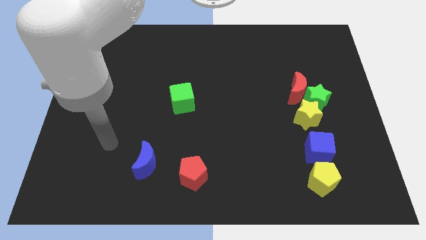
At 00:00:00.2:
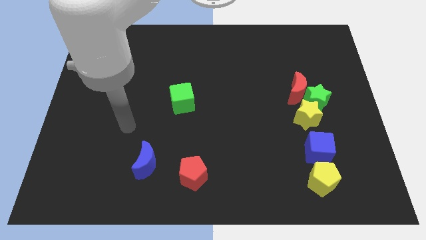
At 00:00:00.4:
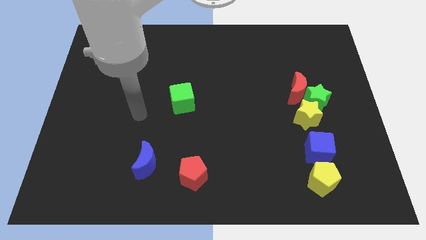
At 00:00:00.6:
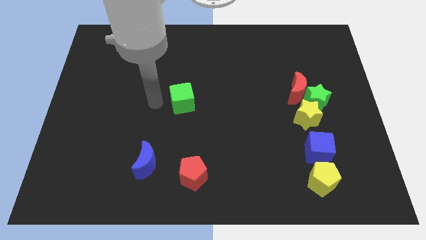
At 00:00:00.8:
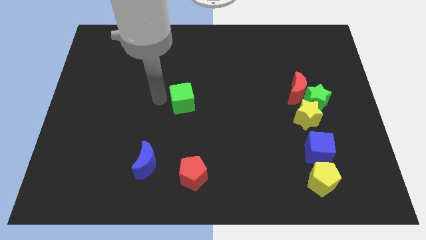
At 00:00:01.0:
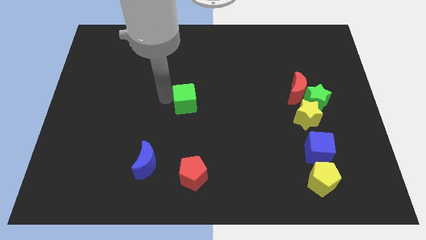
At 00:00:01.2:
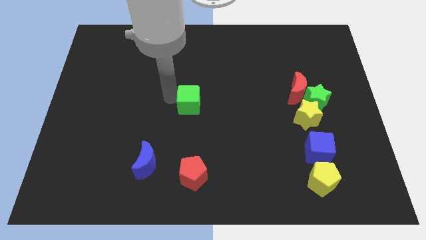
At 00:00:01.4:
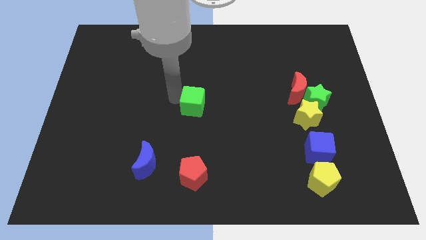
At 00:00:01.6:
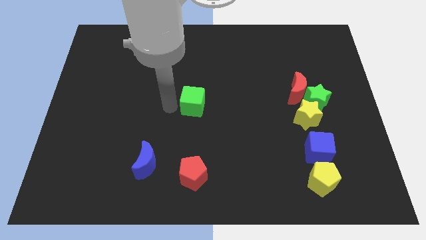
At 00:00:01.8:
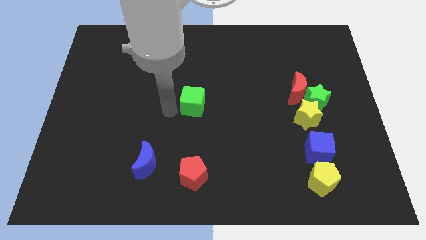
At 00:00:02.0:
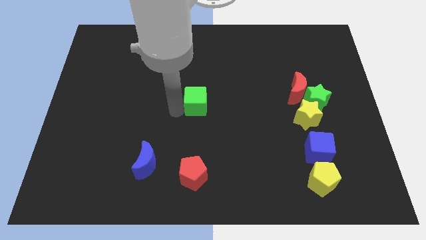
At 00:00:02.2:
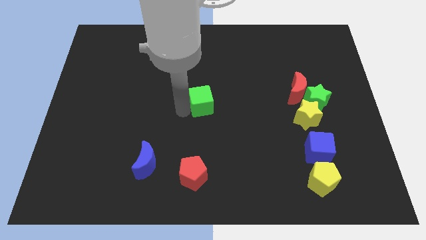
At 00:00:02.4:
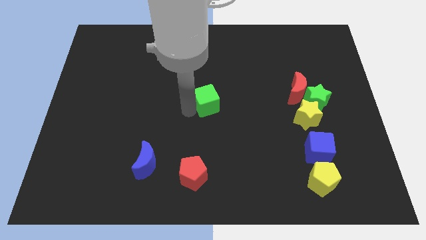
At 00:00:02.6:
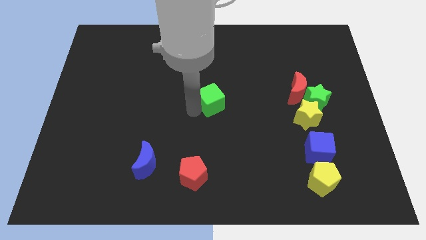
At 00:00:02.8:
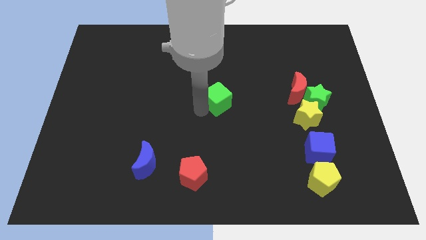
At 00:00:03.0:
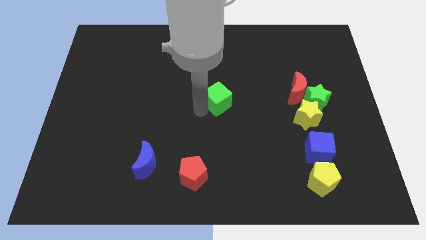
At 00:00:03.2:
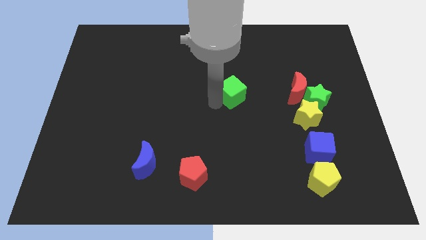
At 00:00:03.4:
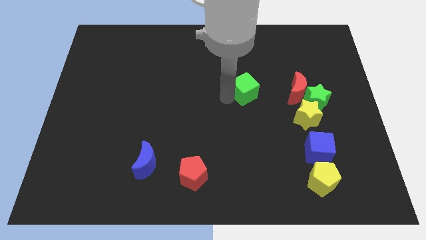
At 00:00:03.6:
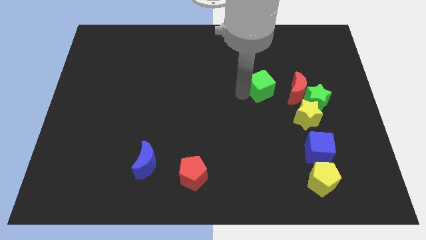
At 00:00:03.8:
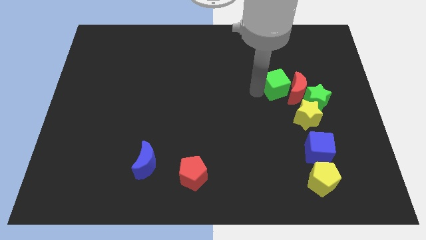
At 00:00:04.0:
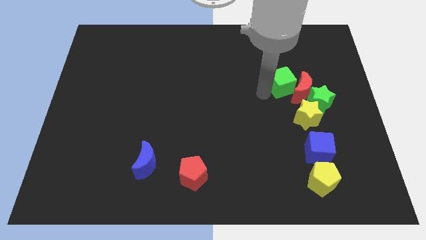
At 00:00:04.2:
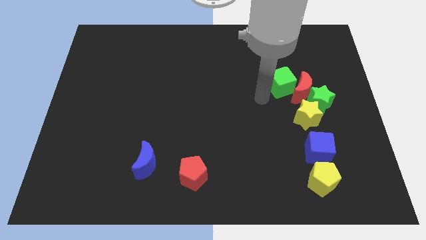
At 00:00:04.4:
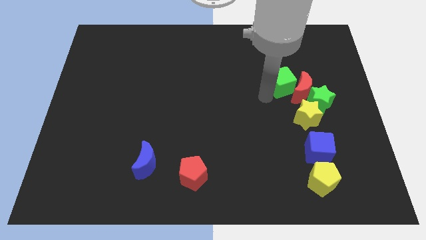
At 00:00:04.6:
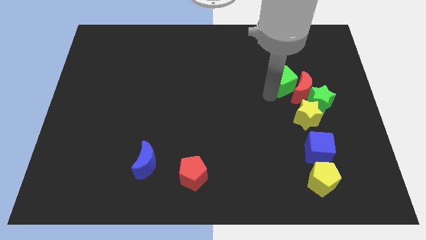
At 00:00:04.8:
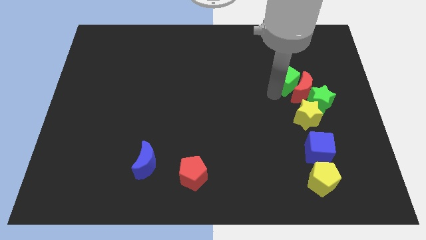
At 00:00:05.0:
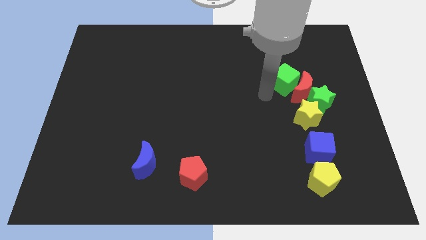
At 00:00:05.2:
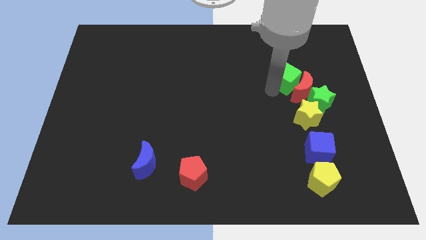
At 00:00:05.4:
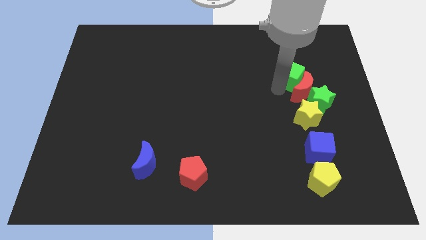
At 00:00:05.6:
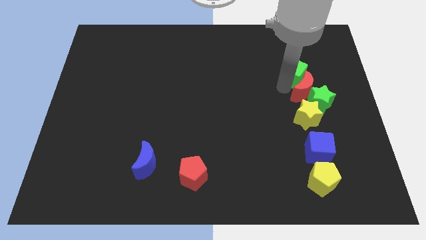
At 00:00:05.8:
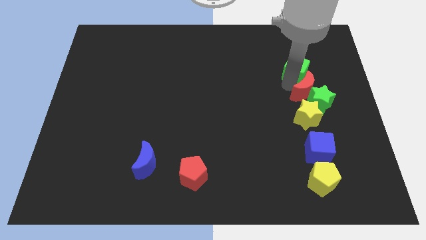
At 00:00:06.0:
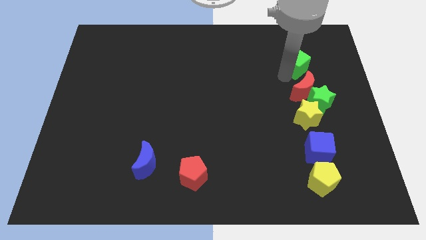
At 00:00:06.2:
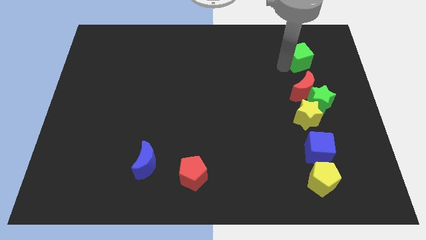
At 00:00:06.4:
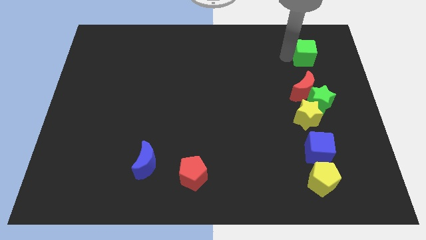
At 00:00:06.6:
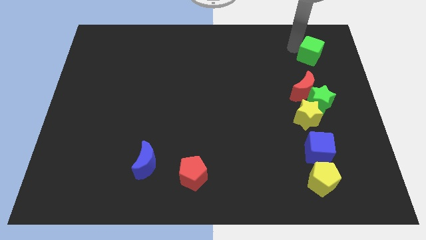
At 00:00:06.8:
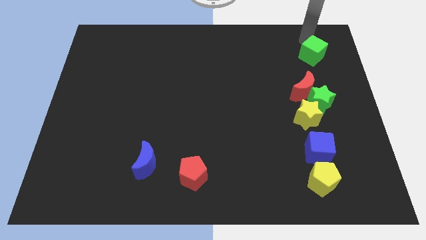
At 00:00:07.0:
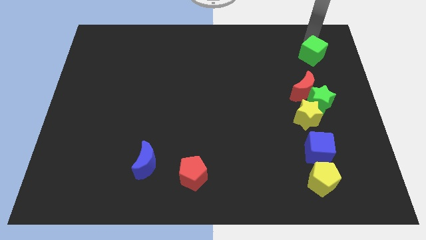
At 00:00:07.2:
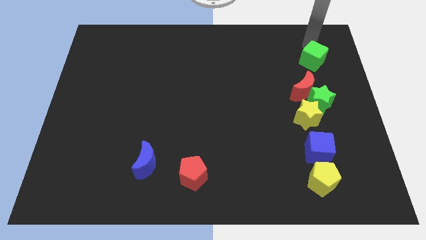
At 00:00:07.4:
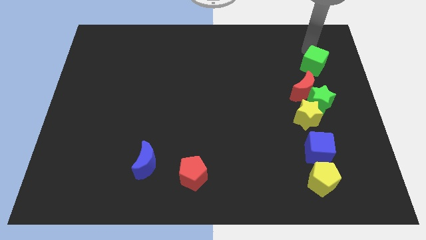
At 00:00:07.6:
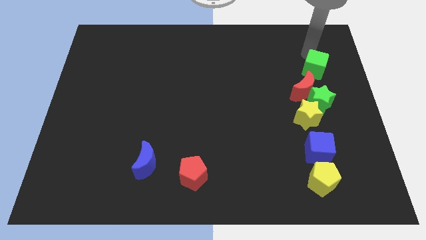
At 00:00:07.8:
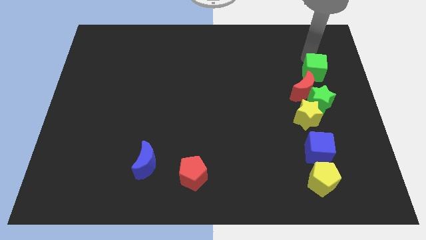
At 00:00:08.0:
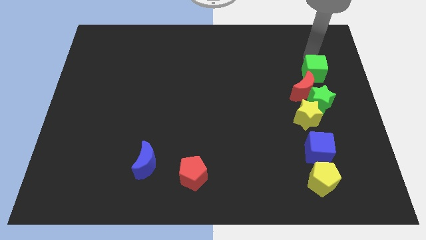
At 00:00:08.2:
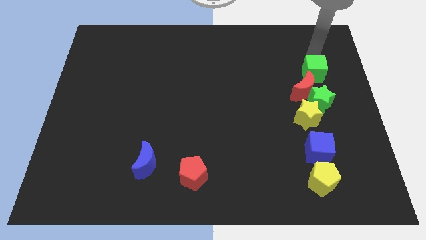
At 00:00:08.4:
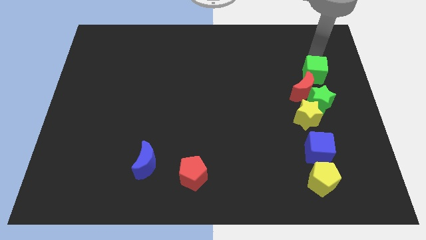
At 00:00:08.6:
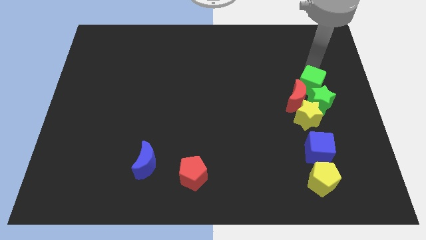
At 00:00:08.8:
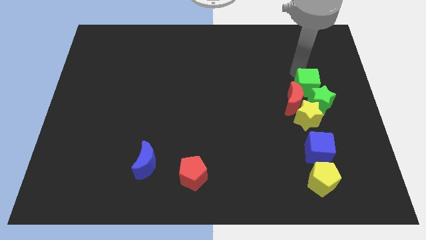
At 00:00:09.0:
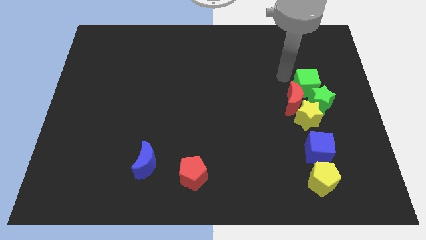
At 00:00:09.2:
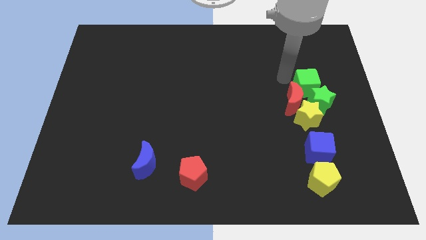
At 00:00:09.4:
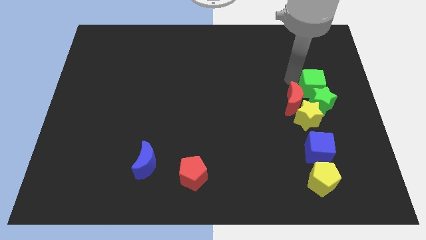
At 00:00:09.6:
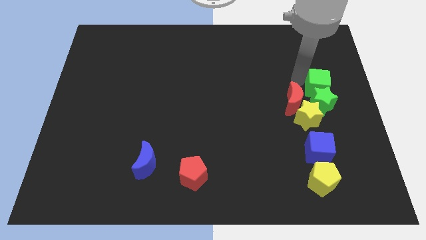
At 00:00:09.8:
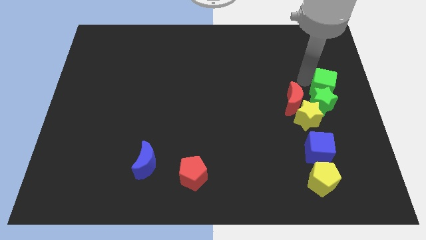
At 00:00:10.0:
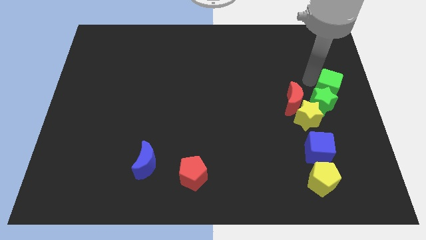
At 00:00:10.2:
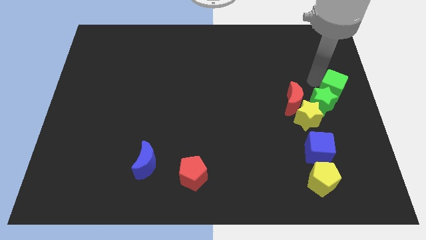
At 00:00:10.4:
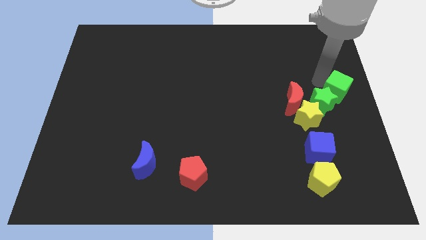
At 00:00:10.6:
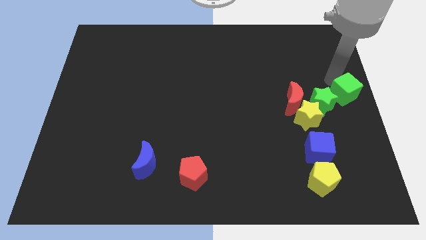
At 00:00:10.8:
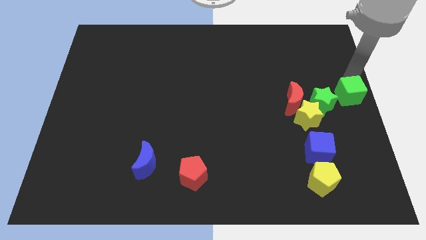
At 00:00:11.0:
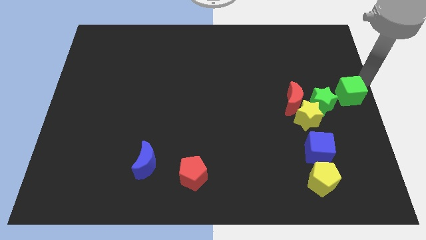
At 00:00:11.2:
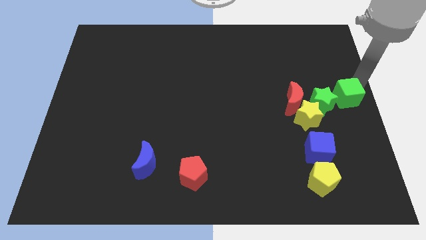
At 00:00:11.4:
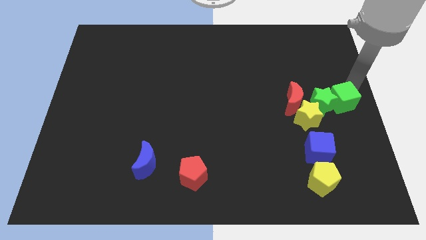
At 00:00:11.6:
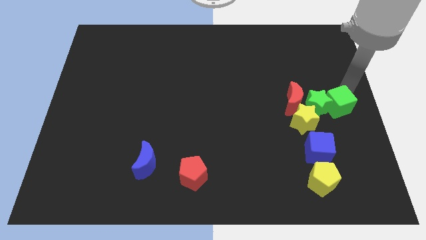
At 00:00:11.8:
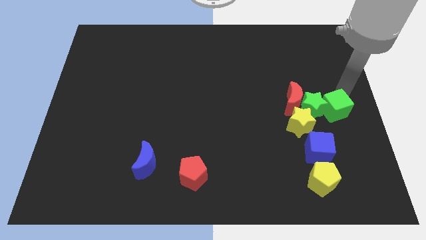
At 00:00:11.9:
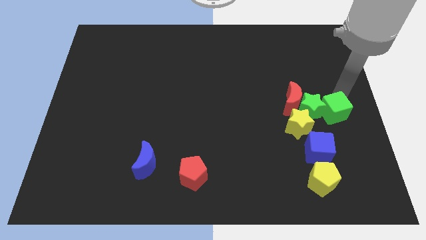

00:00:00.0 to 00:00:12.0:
move the green cube diagonally down and to the right of the red moon

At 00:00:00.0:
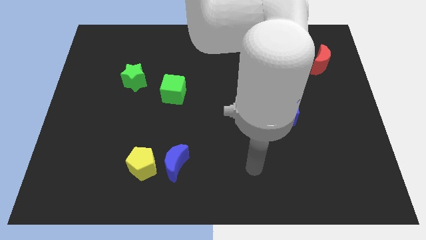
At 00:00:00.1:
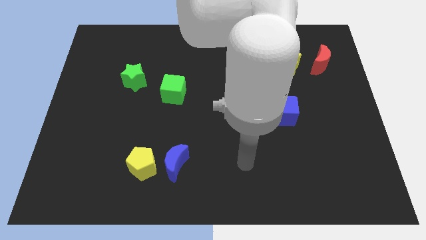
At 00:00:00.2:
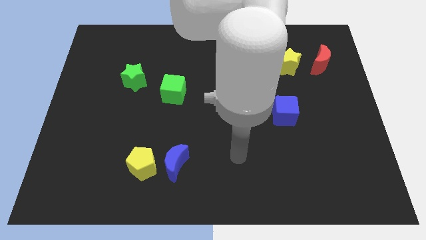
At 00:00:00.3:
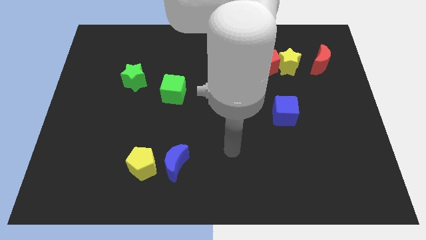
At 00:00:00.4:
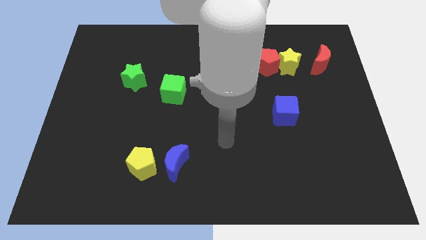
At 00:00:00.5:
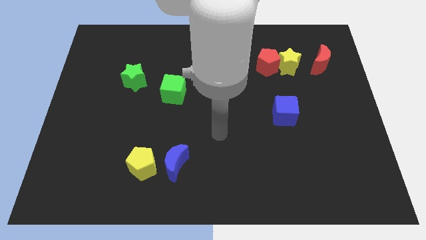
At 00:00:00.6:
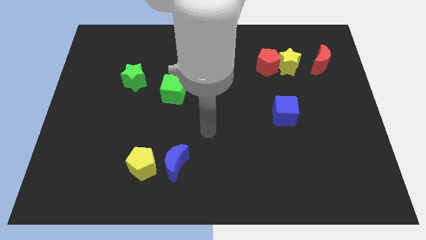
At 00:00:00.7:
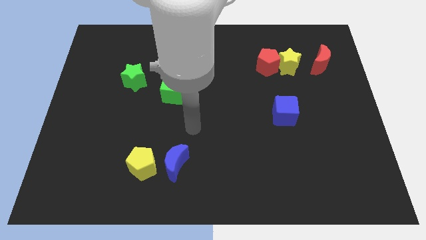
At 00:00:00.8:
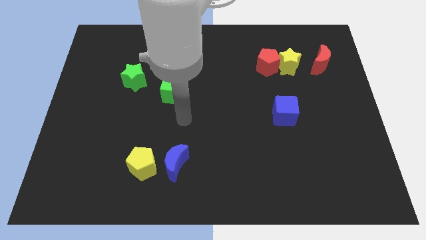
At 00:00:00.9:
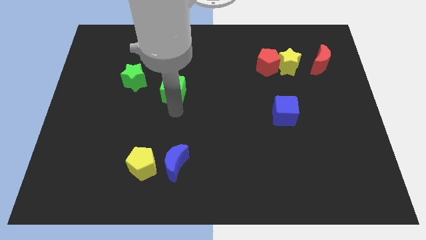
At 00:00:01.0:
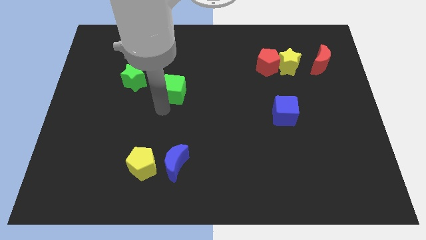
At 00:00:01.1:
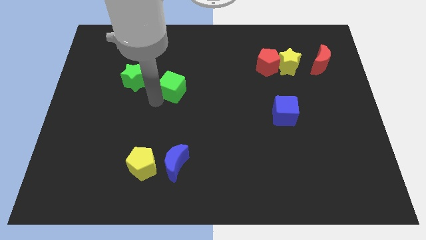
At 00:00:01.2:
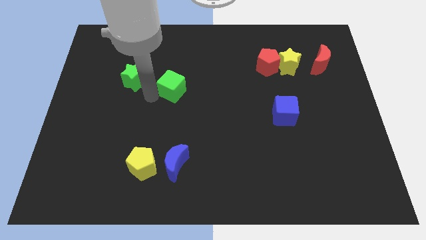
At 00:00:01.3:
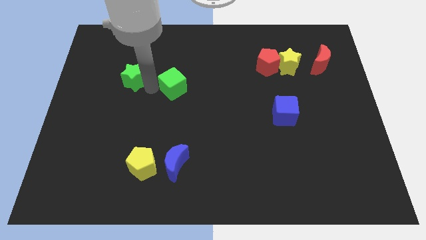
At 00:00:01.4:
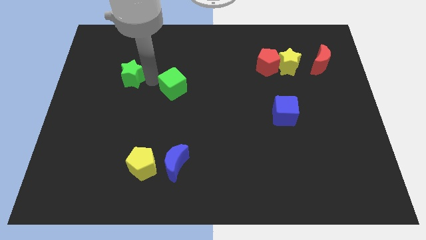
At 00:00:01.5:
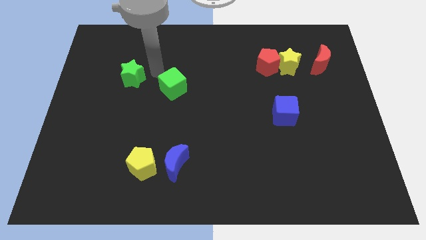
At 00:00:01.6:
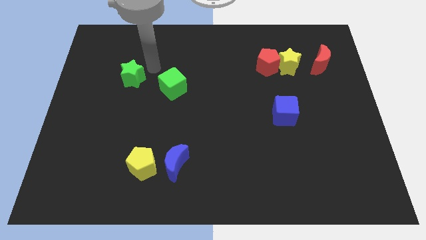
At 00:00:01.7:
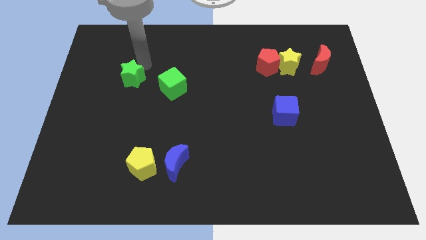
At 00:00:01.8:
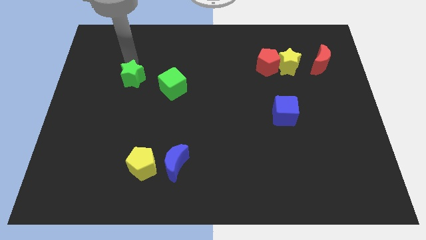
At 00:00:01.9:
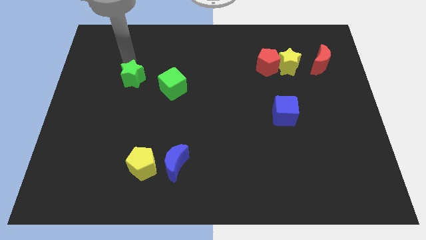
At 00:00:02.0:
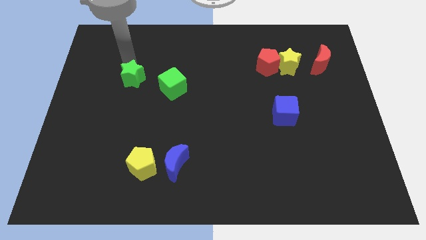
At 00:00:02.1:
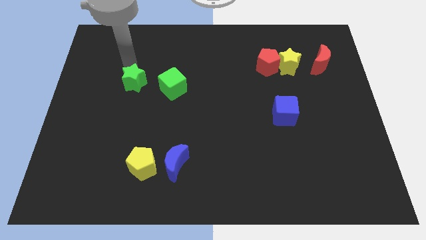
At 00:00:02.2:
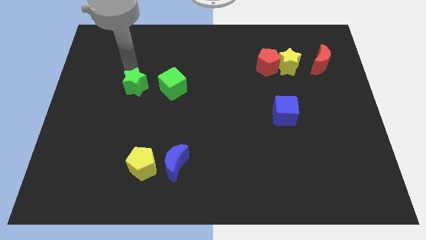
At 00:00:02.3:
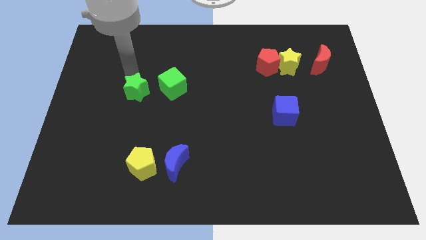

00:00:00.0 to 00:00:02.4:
move the green star diagonally down and to the left of the green cube
